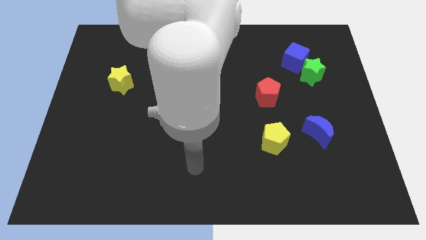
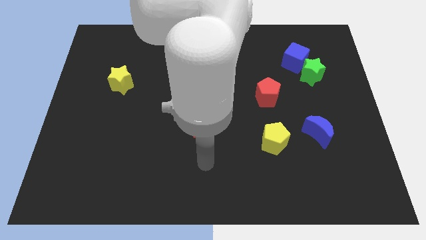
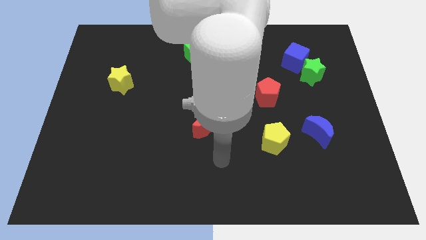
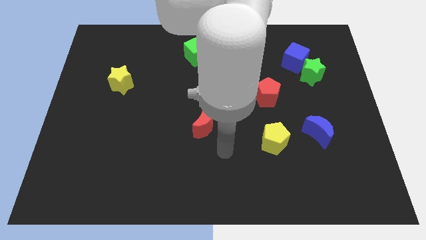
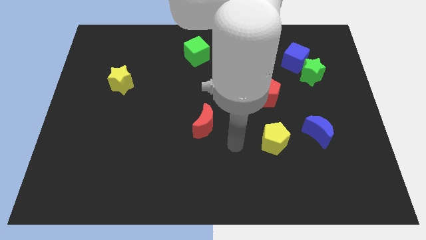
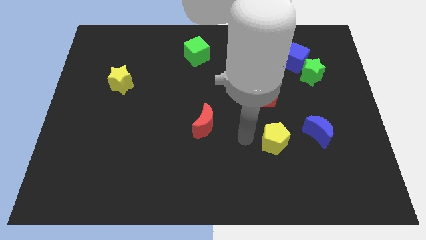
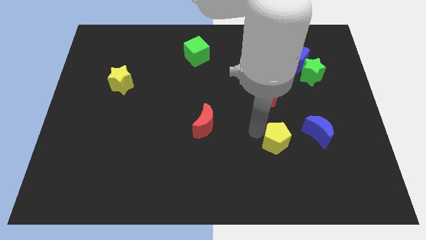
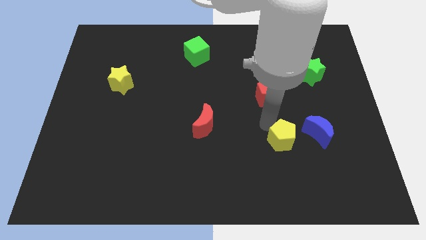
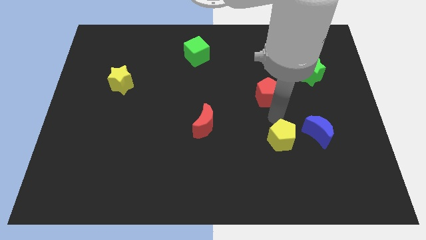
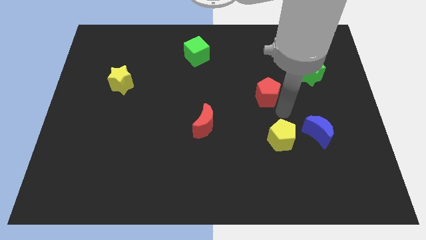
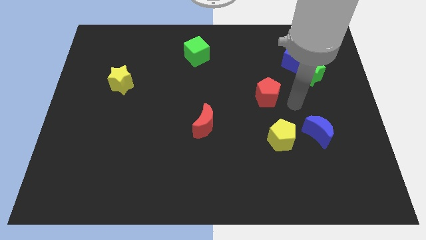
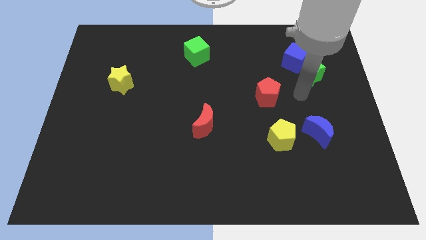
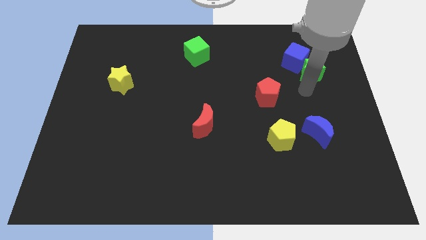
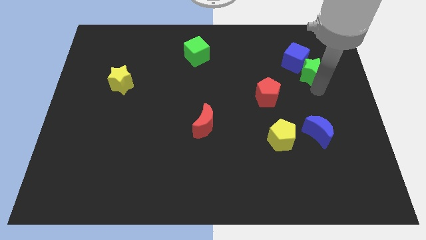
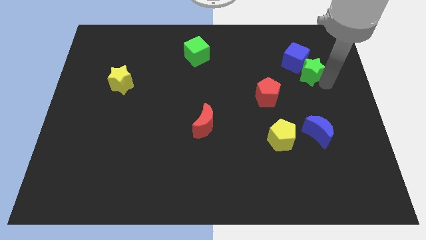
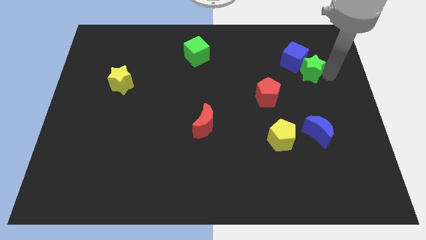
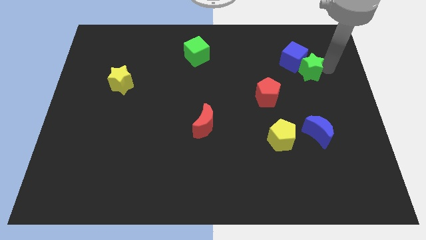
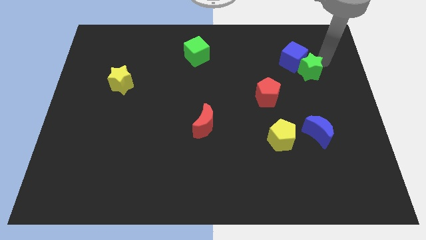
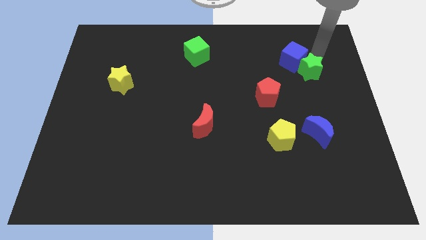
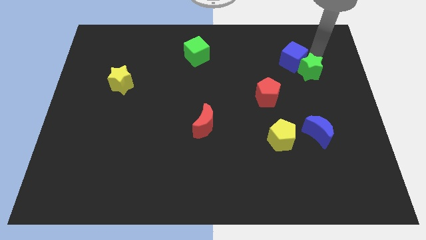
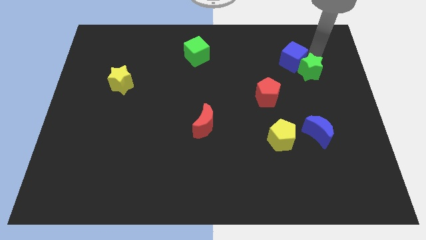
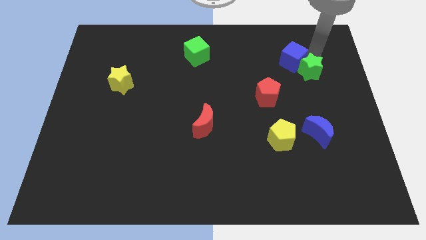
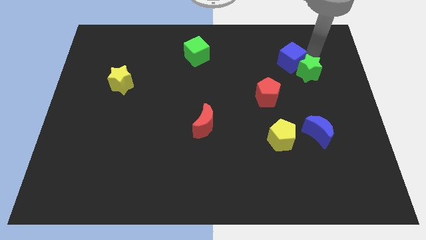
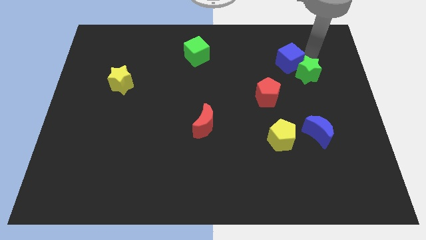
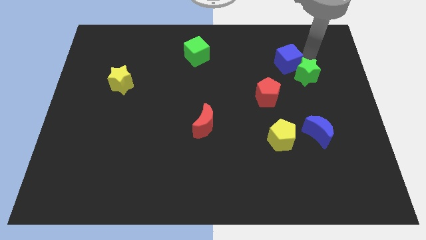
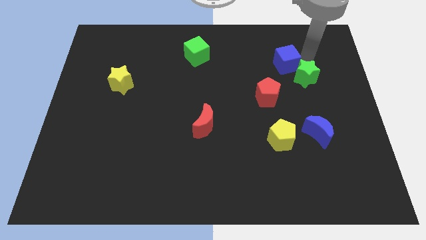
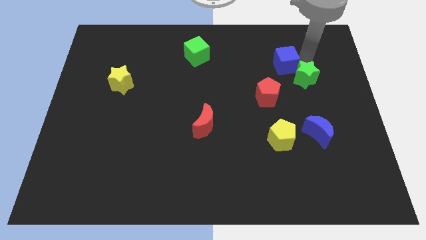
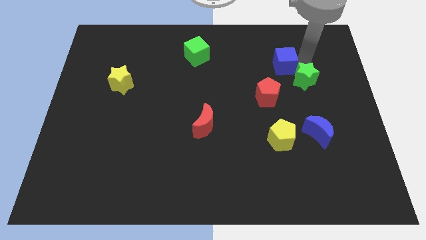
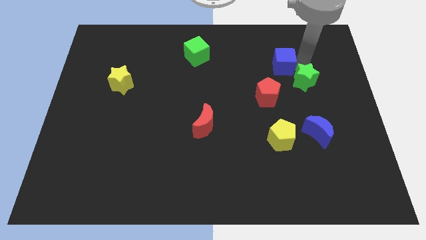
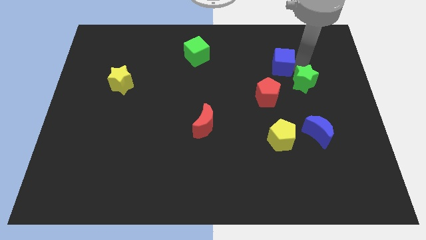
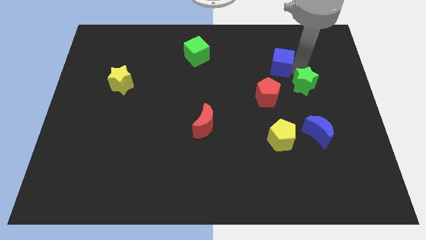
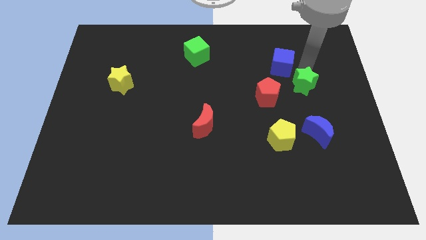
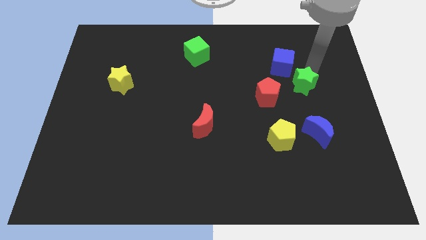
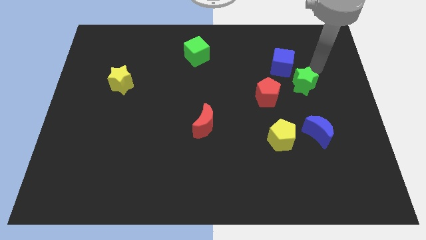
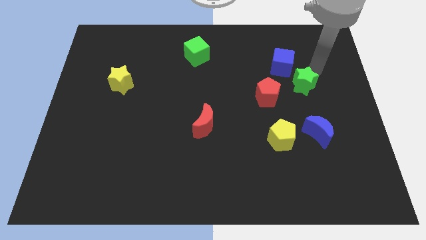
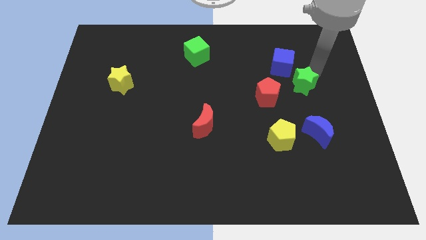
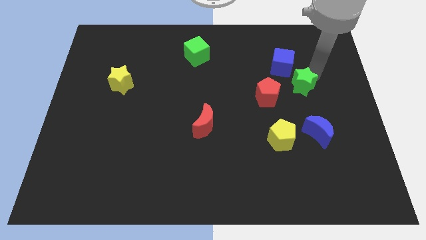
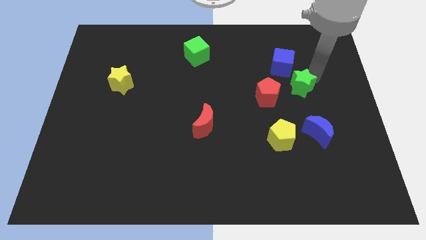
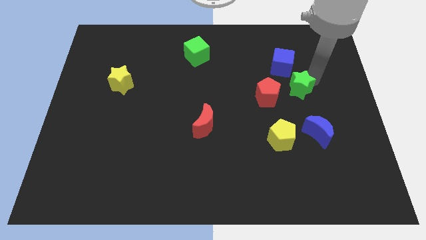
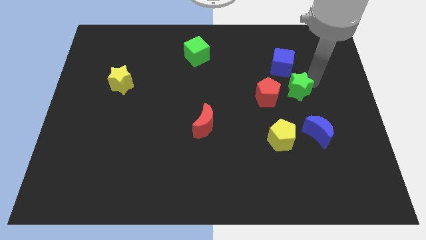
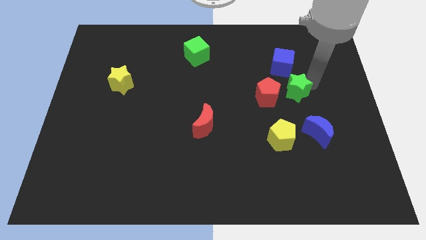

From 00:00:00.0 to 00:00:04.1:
slide the green star diagonally downwards and left a little bit

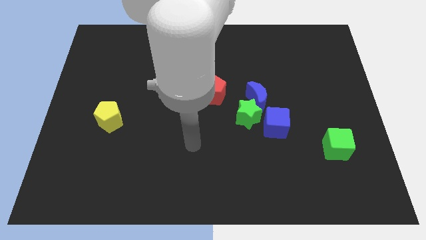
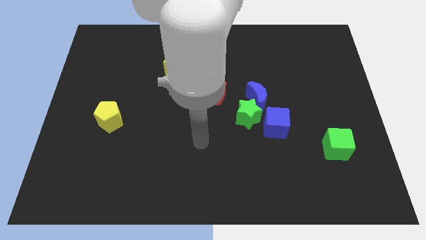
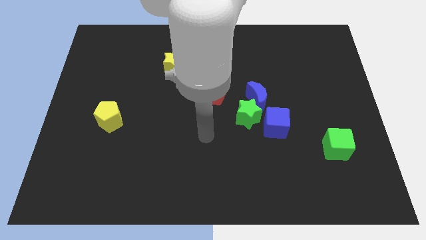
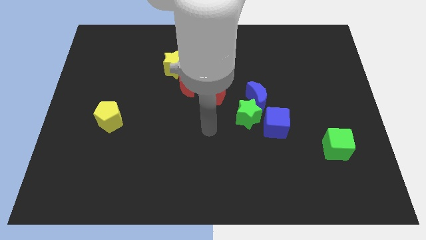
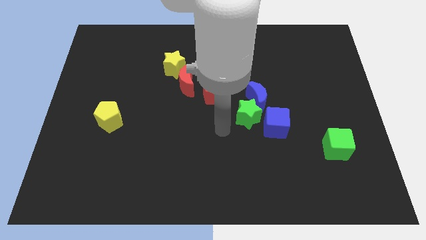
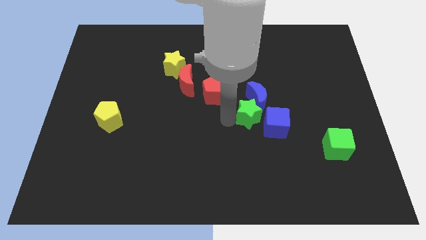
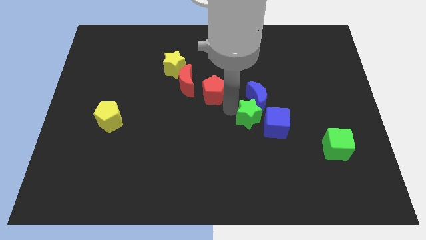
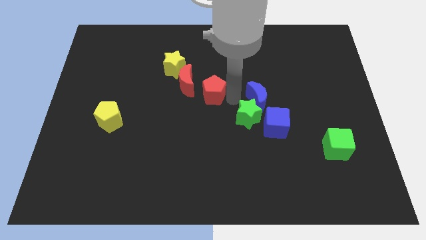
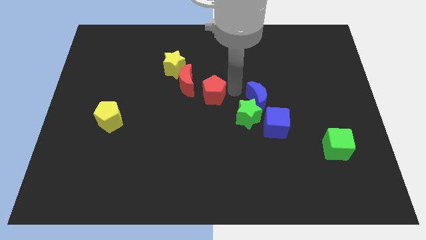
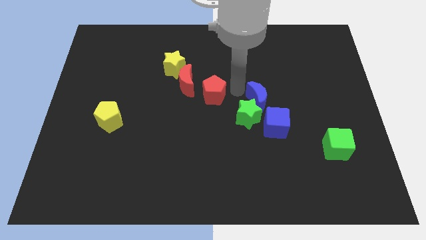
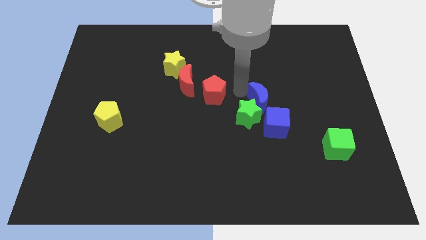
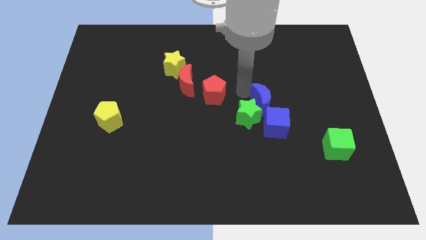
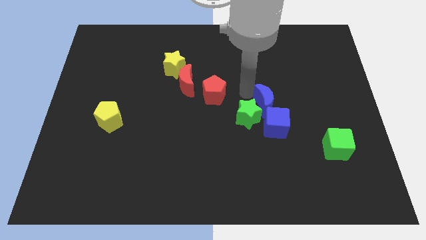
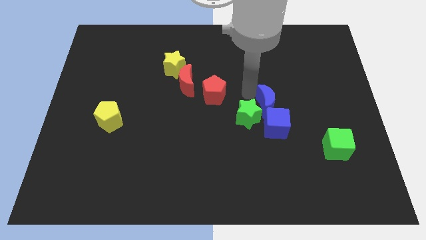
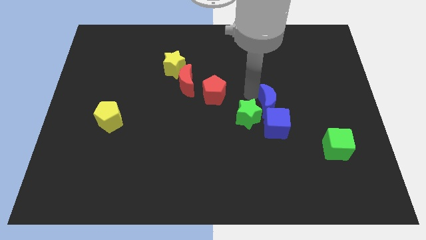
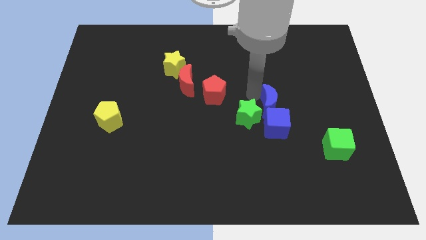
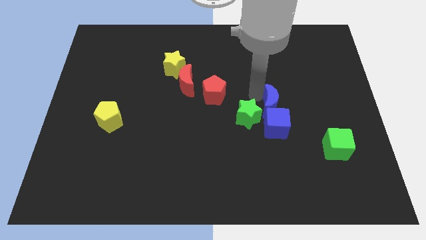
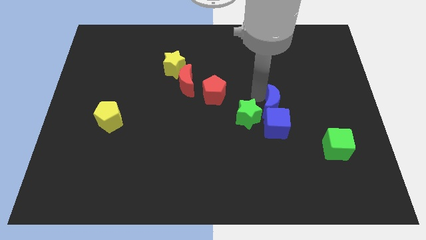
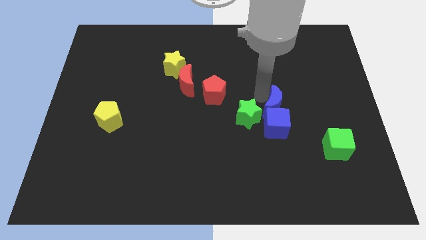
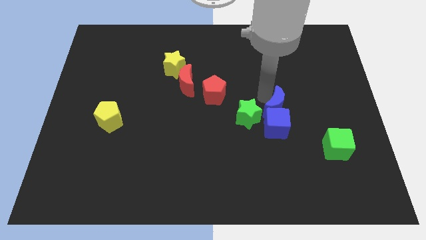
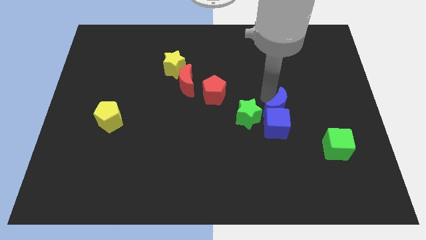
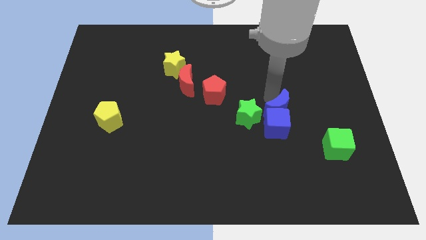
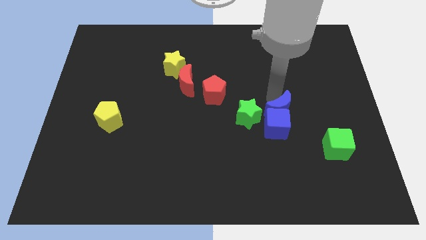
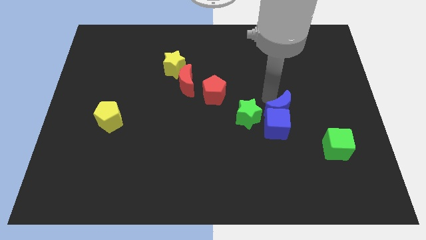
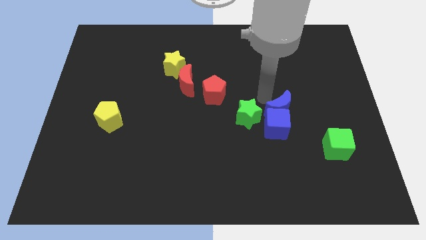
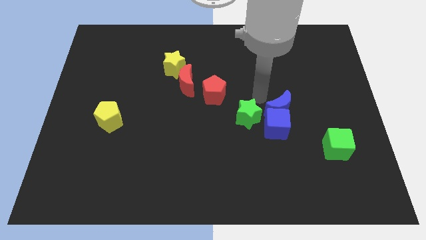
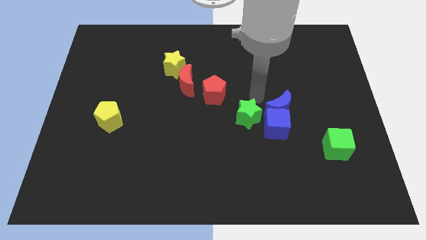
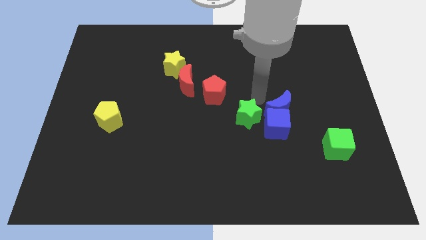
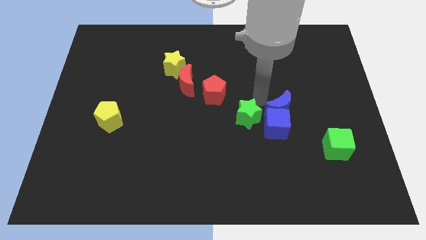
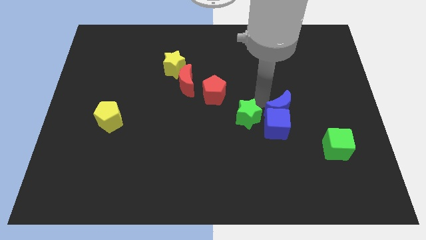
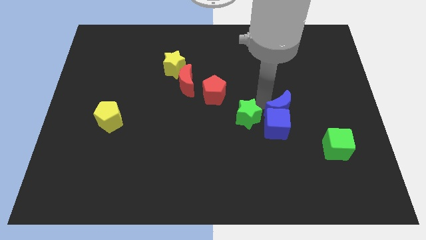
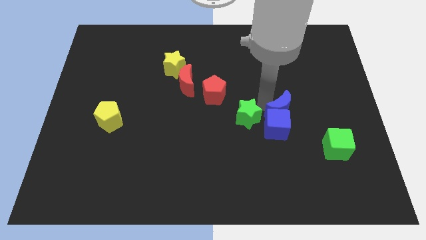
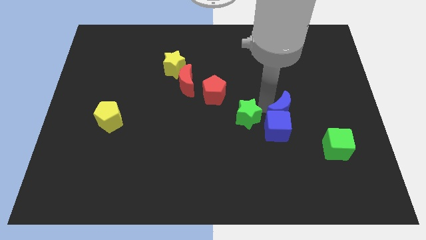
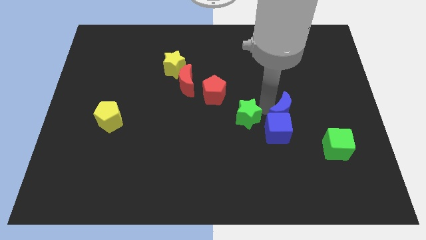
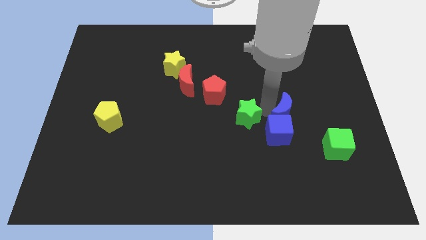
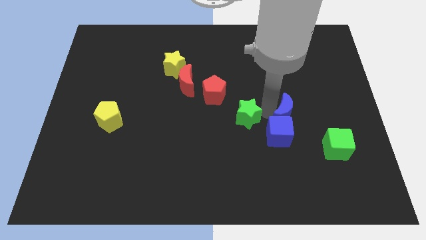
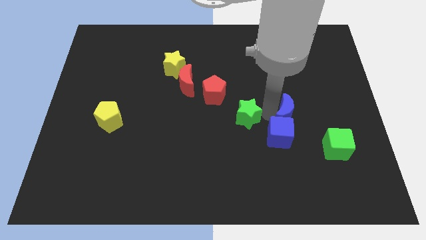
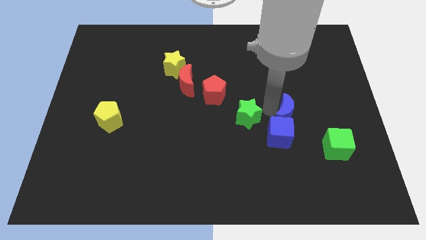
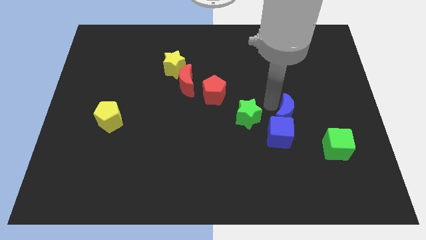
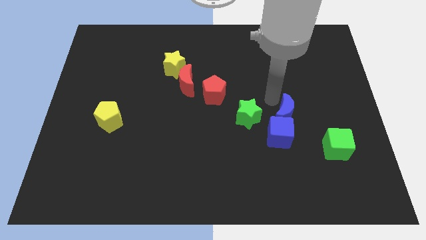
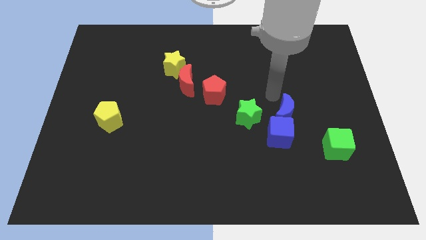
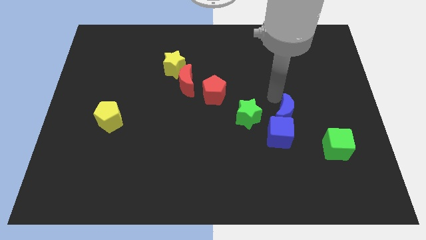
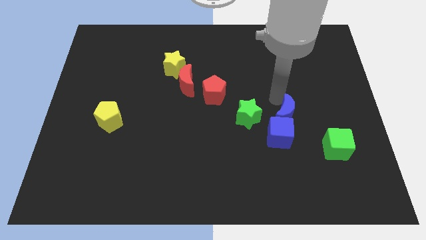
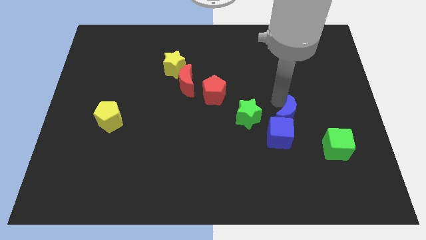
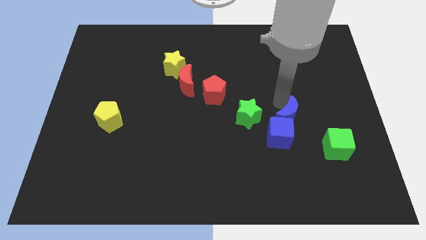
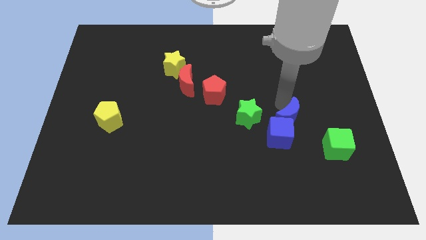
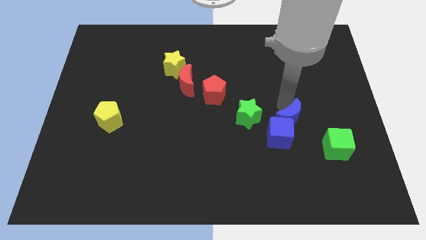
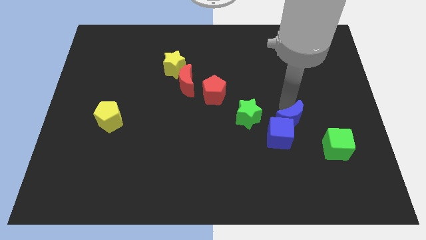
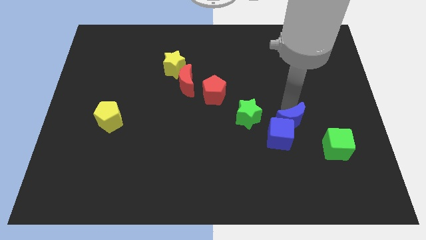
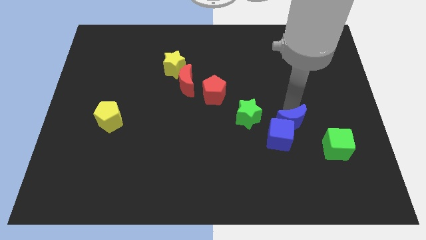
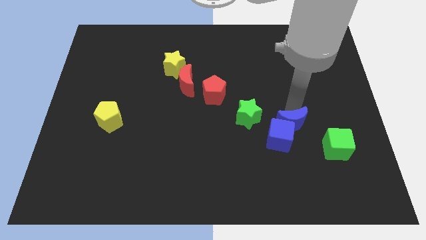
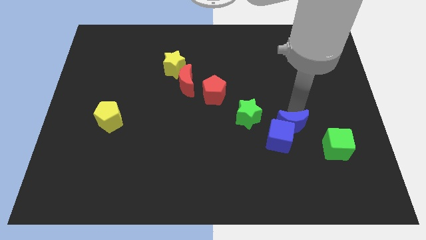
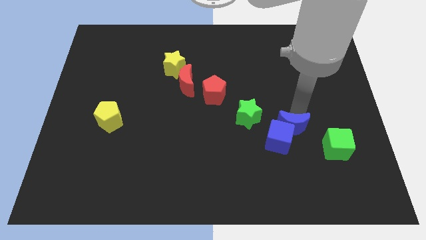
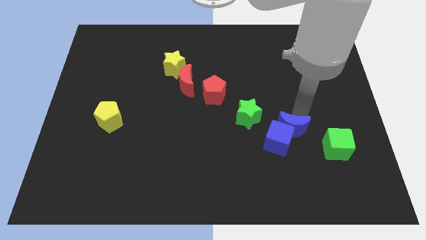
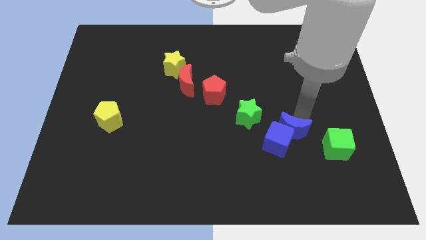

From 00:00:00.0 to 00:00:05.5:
move the blue moon downwards slightly
